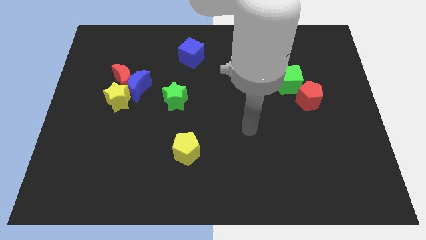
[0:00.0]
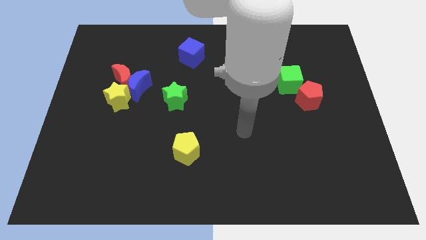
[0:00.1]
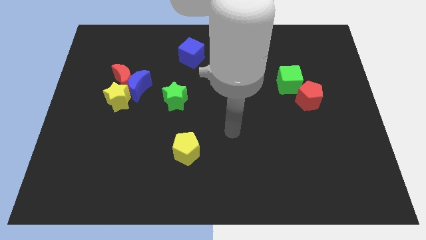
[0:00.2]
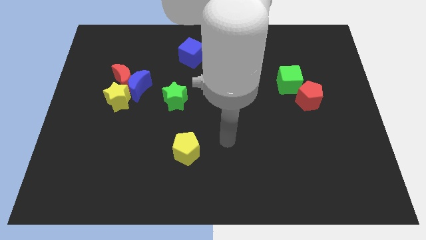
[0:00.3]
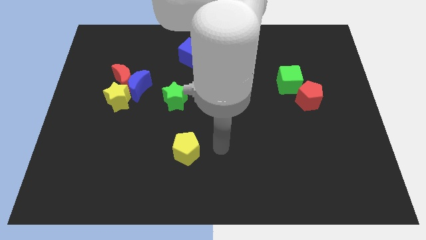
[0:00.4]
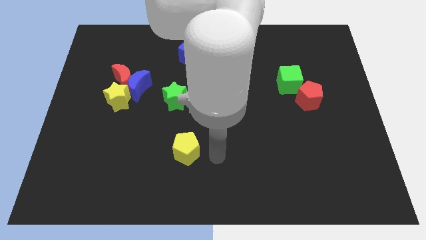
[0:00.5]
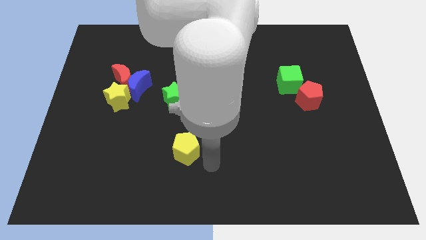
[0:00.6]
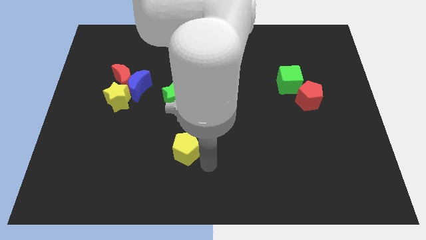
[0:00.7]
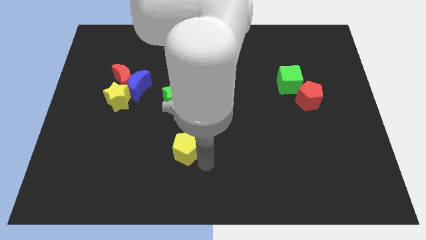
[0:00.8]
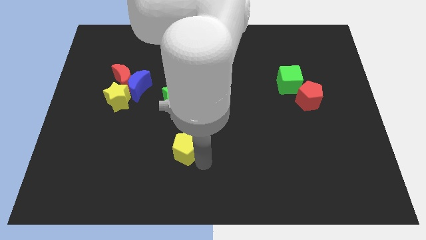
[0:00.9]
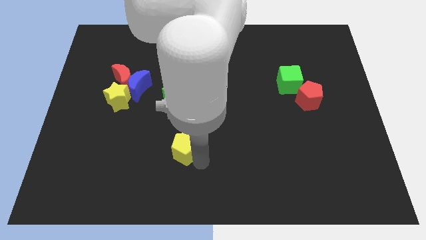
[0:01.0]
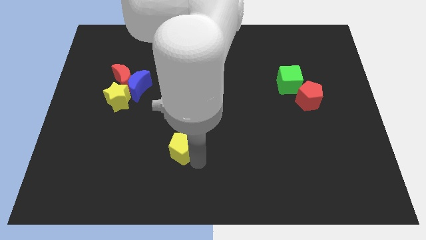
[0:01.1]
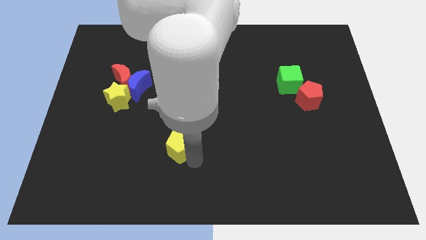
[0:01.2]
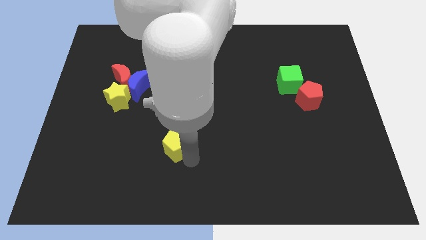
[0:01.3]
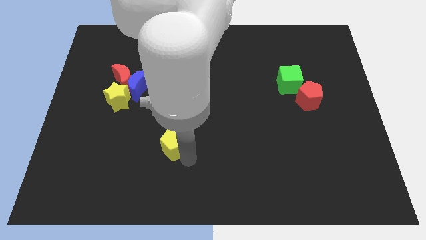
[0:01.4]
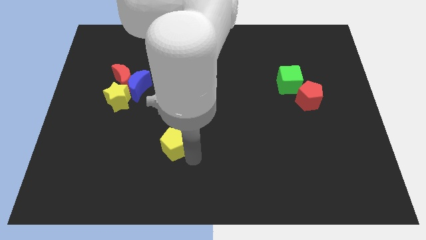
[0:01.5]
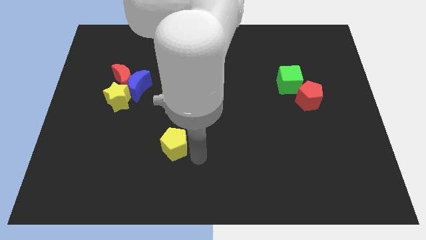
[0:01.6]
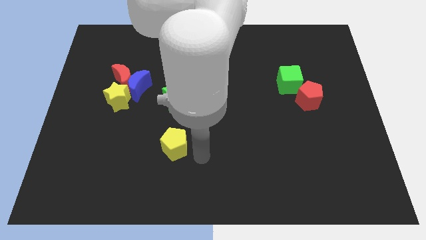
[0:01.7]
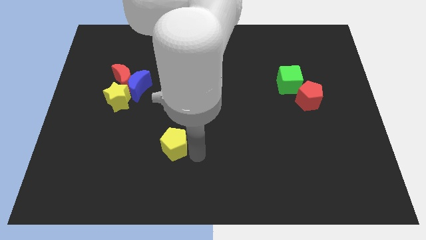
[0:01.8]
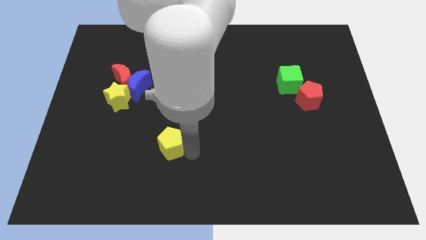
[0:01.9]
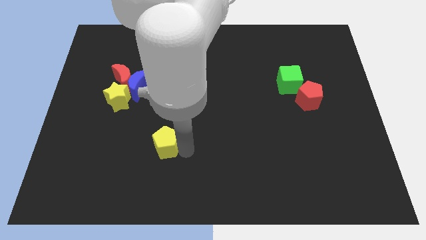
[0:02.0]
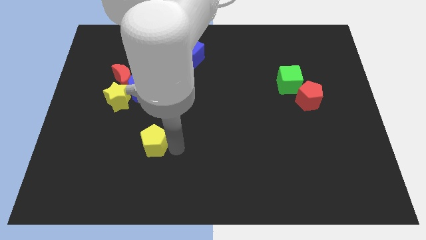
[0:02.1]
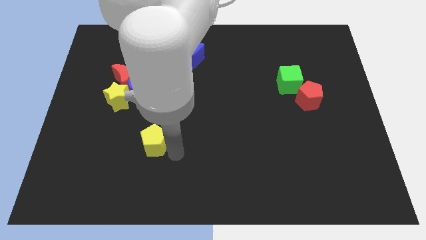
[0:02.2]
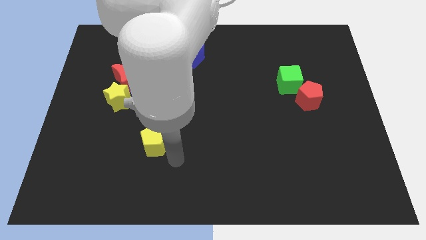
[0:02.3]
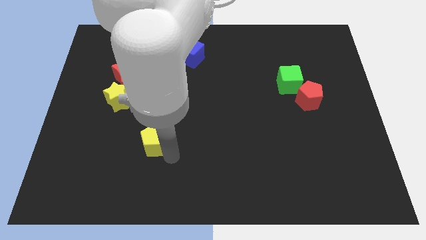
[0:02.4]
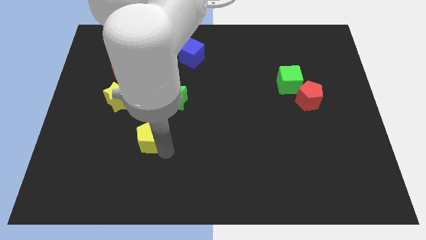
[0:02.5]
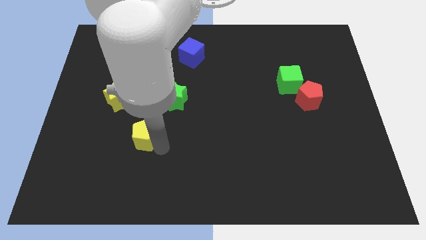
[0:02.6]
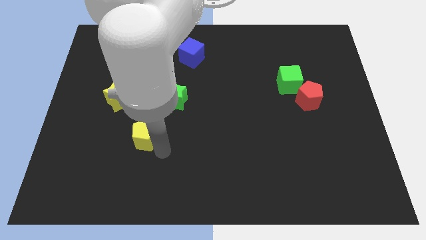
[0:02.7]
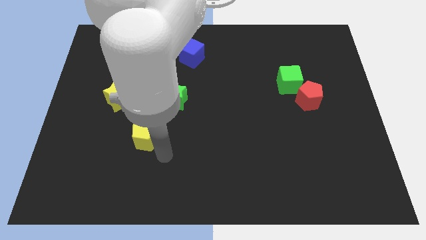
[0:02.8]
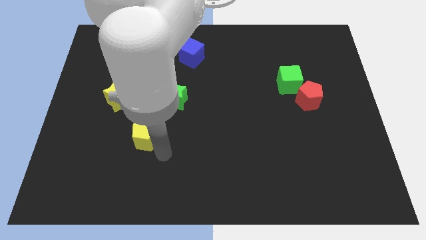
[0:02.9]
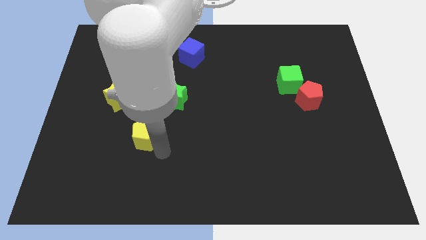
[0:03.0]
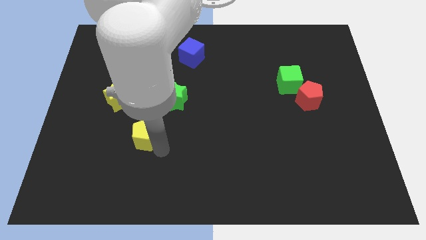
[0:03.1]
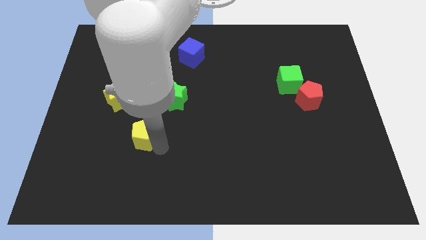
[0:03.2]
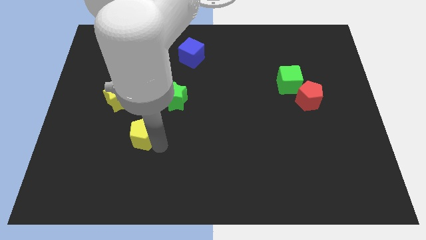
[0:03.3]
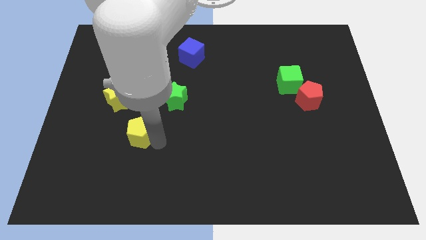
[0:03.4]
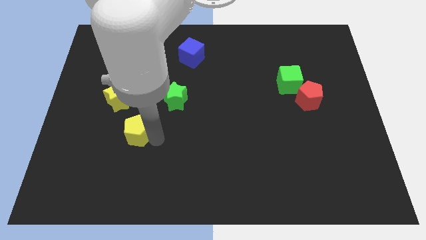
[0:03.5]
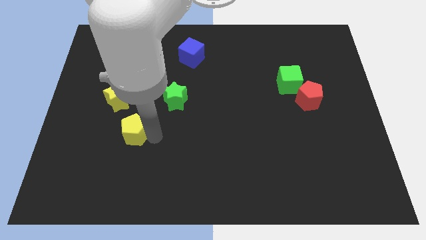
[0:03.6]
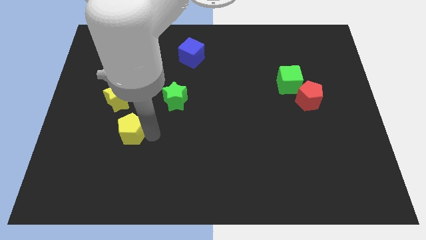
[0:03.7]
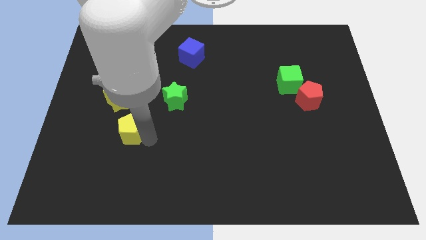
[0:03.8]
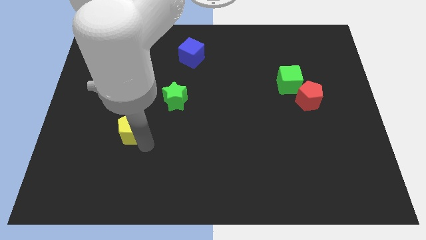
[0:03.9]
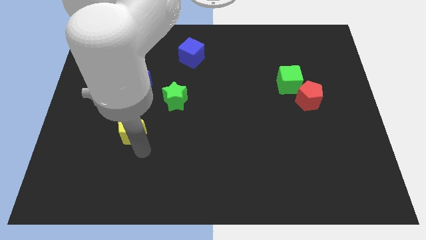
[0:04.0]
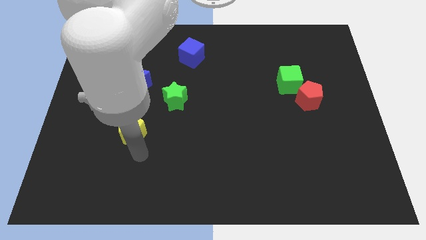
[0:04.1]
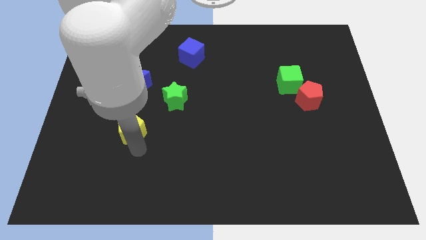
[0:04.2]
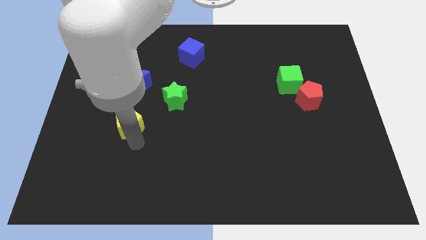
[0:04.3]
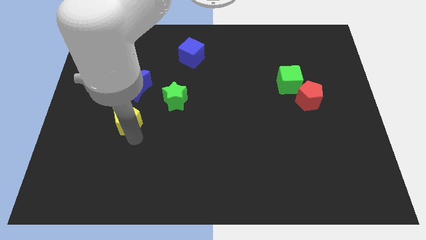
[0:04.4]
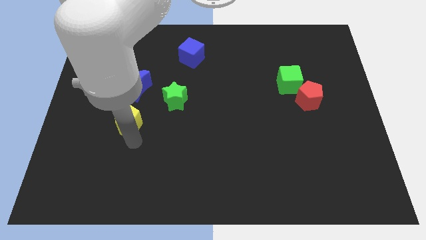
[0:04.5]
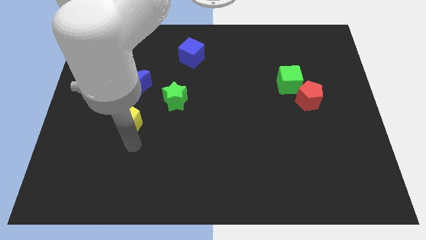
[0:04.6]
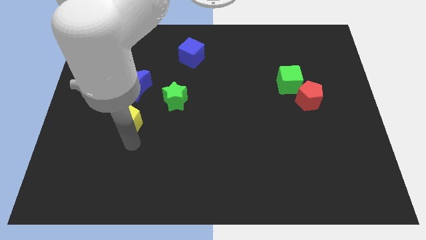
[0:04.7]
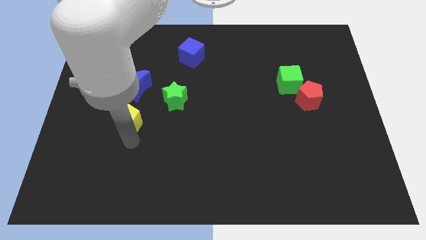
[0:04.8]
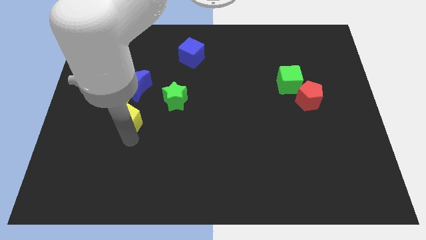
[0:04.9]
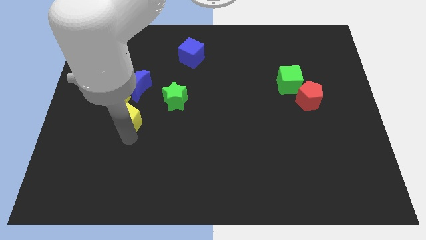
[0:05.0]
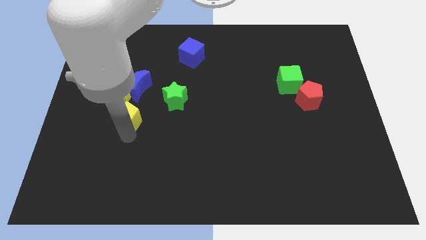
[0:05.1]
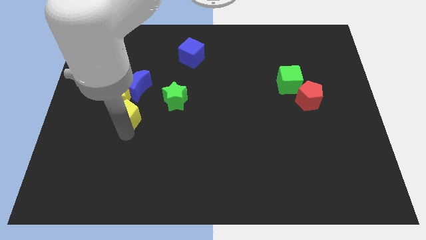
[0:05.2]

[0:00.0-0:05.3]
move the yellow pentagon to the yellow star

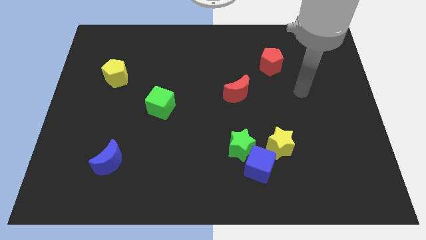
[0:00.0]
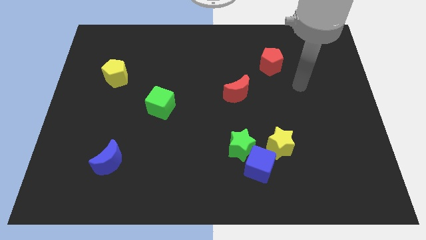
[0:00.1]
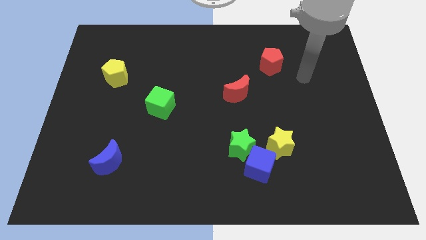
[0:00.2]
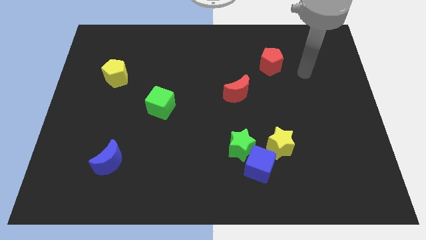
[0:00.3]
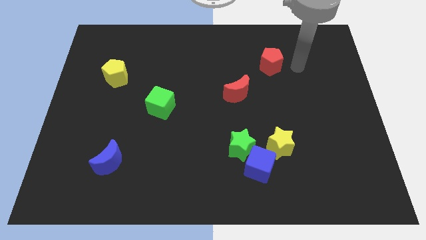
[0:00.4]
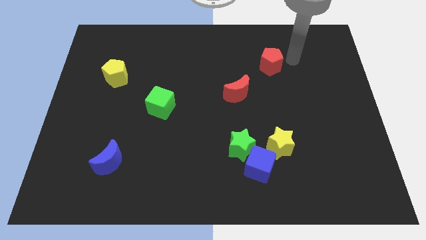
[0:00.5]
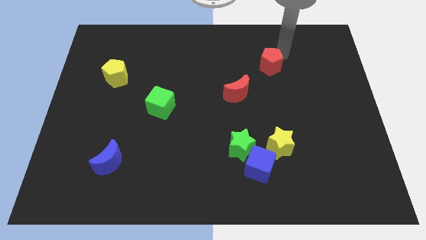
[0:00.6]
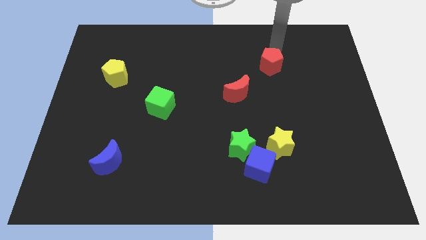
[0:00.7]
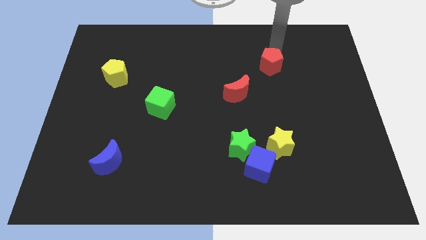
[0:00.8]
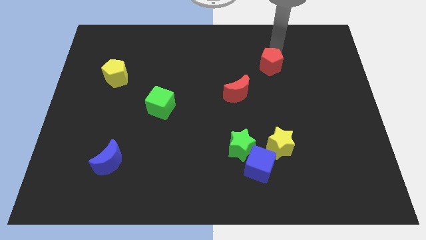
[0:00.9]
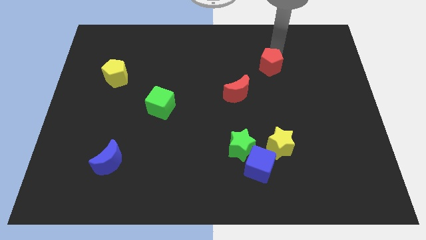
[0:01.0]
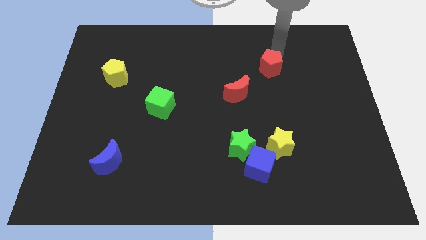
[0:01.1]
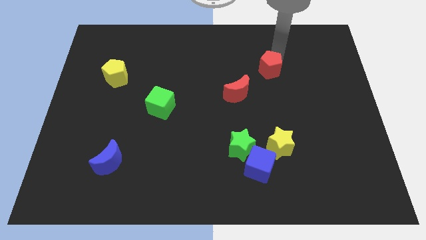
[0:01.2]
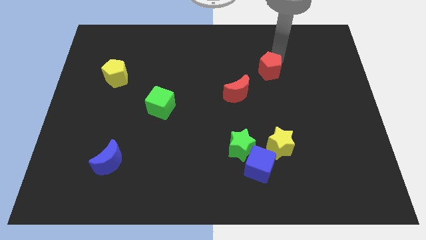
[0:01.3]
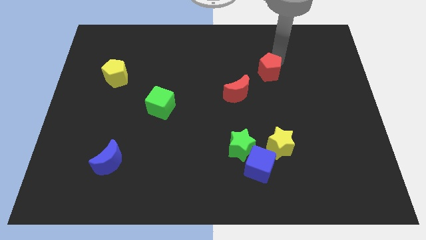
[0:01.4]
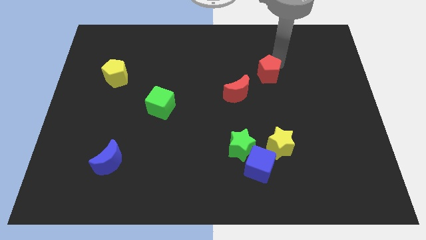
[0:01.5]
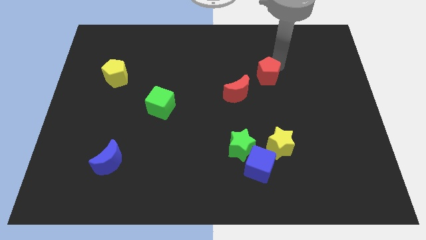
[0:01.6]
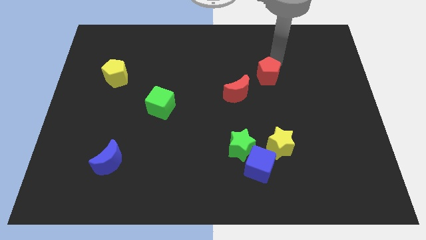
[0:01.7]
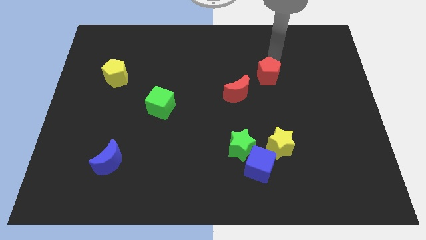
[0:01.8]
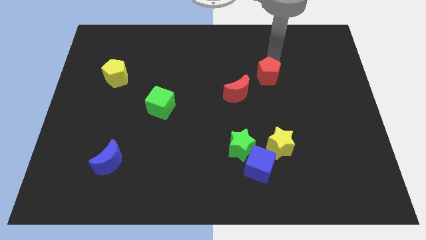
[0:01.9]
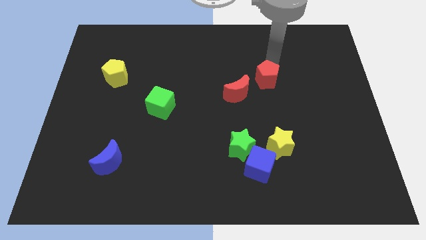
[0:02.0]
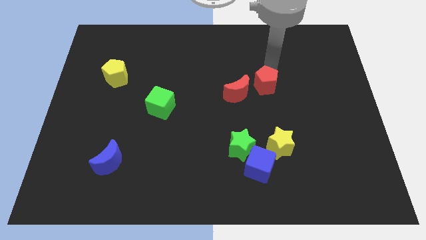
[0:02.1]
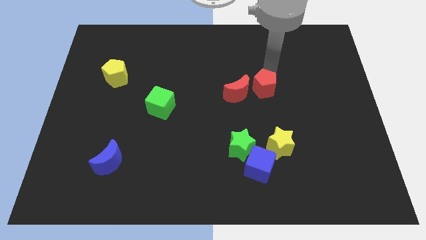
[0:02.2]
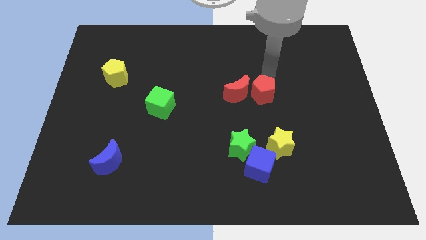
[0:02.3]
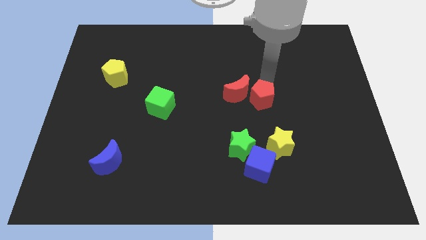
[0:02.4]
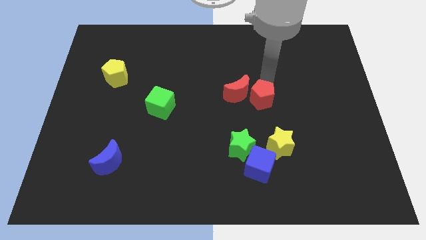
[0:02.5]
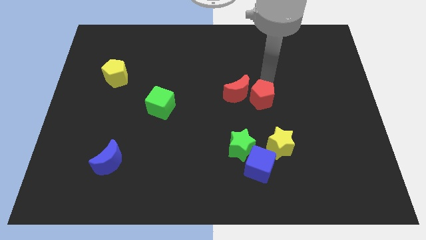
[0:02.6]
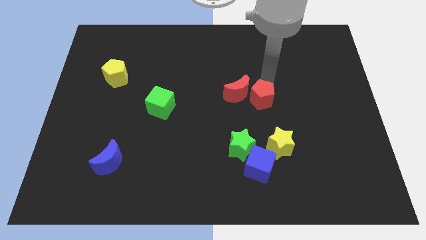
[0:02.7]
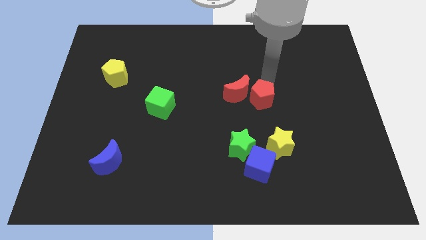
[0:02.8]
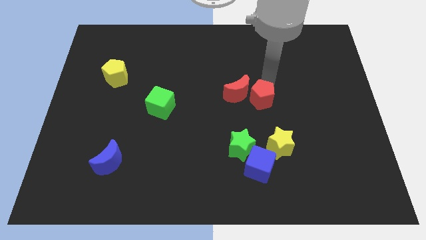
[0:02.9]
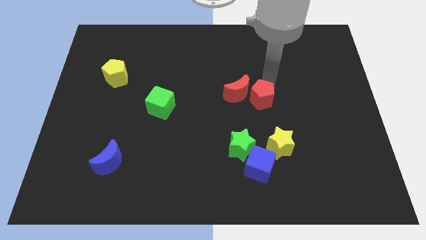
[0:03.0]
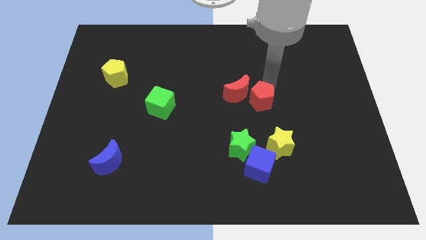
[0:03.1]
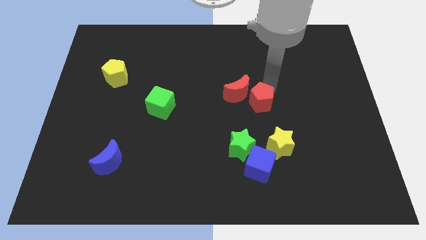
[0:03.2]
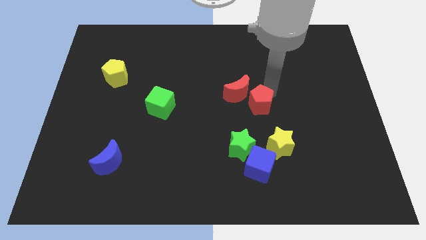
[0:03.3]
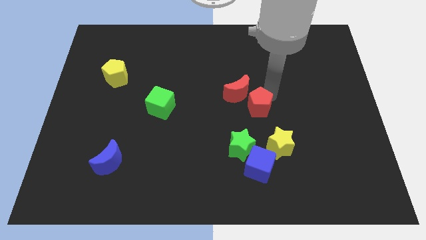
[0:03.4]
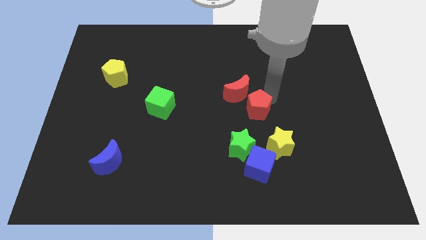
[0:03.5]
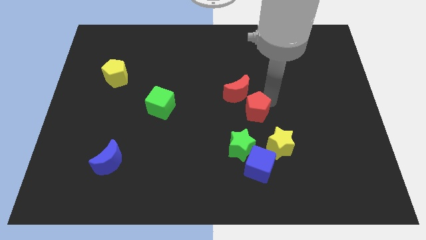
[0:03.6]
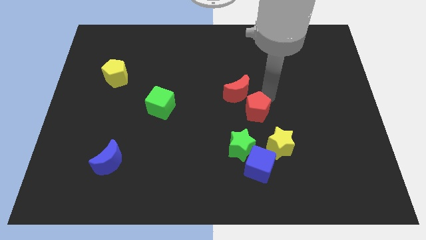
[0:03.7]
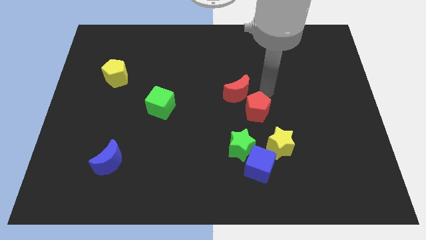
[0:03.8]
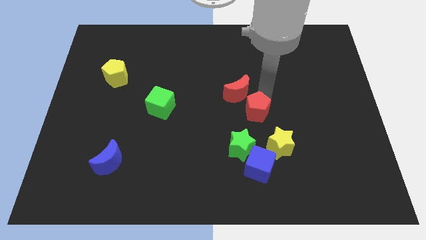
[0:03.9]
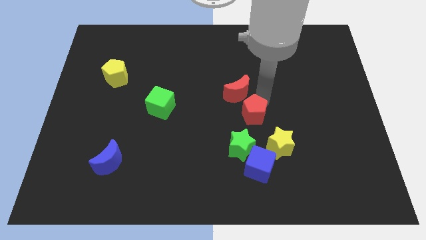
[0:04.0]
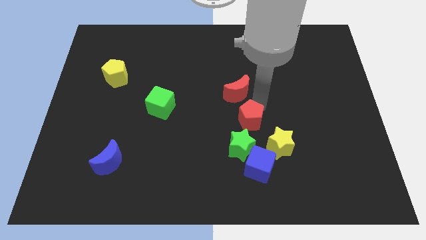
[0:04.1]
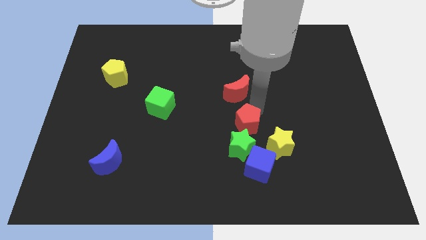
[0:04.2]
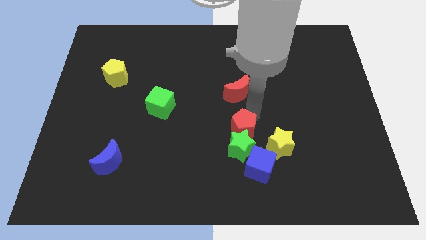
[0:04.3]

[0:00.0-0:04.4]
push the red pentagon to the green star
